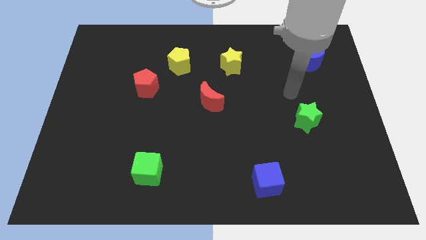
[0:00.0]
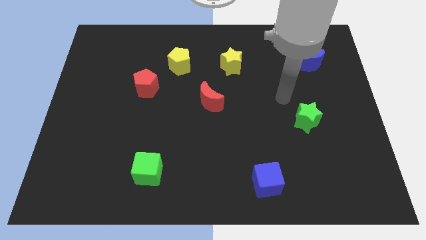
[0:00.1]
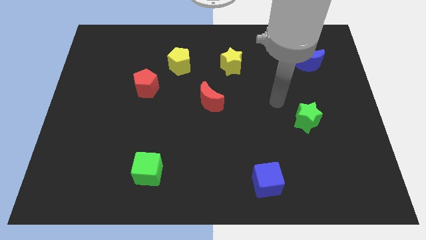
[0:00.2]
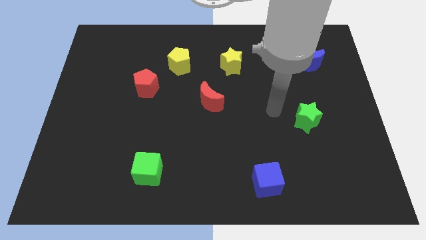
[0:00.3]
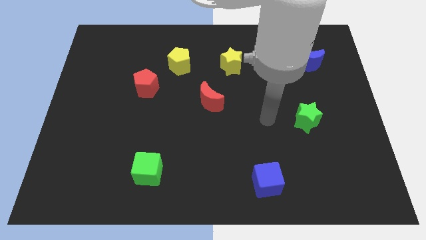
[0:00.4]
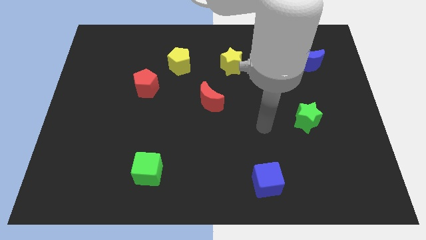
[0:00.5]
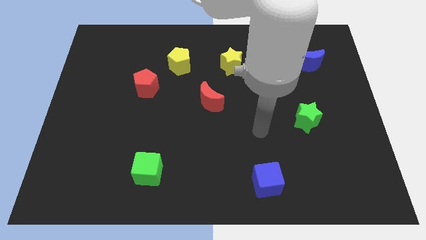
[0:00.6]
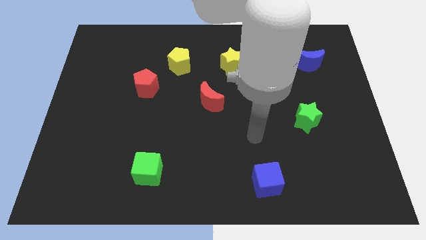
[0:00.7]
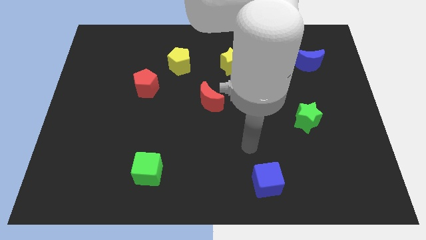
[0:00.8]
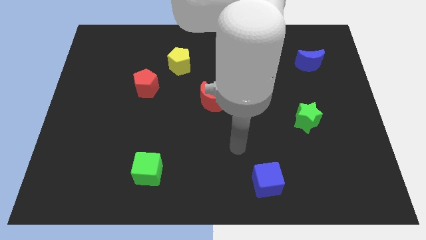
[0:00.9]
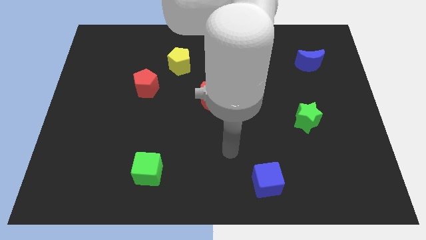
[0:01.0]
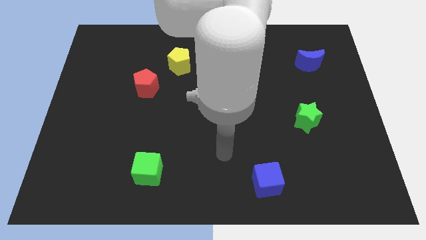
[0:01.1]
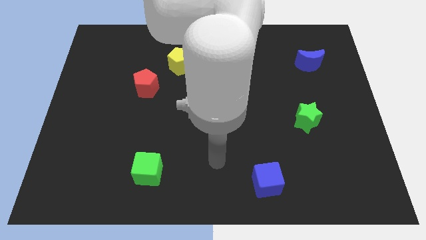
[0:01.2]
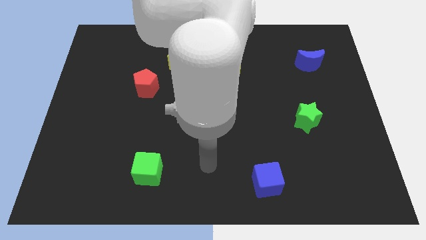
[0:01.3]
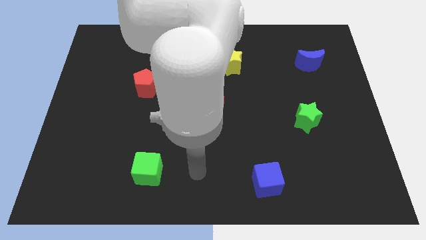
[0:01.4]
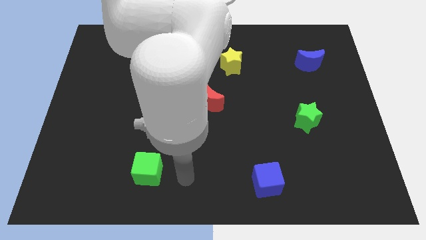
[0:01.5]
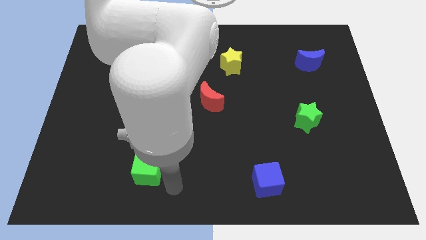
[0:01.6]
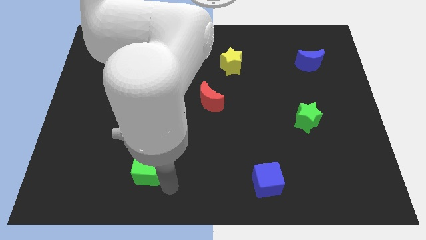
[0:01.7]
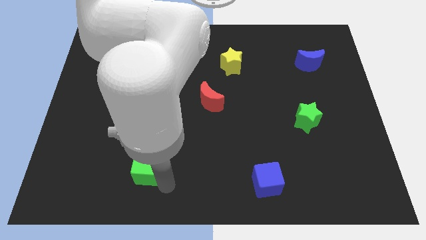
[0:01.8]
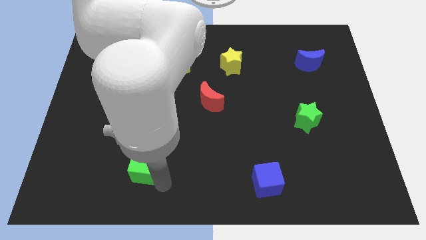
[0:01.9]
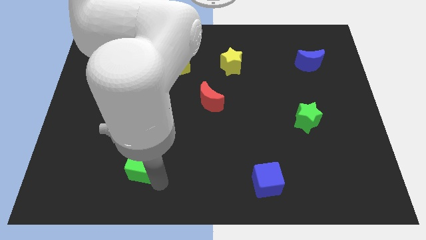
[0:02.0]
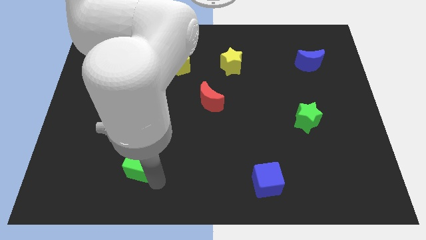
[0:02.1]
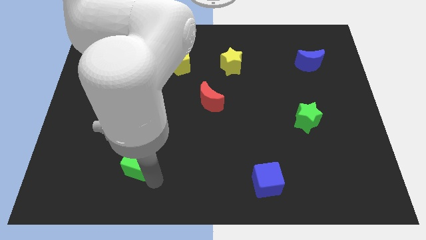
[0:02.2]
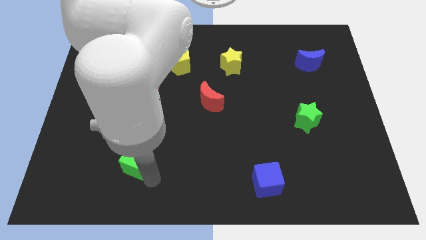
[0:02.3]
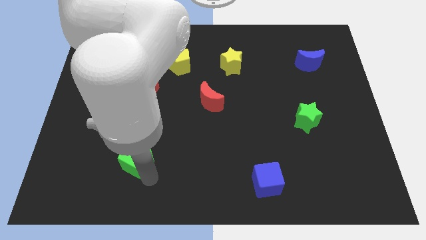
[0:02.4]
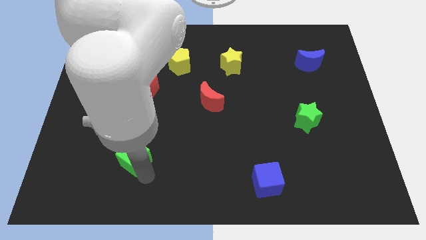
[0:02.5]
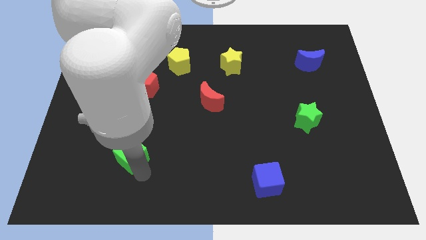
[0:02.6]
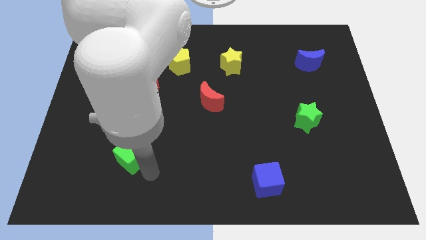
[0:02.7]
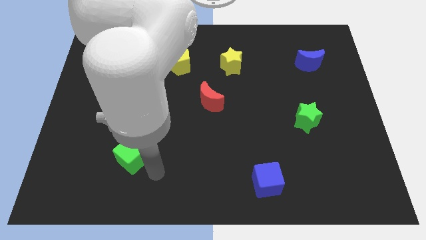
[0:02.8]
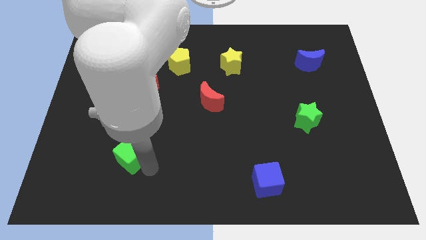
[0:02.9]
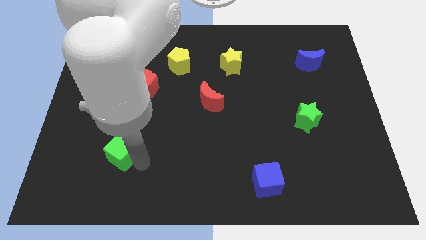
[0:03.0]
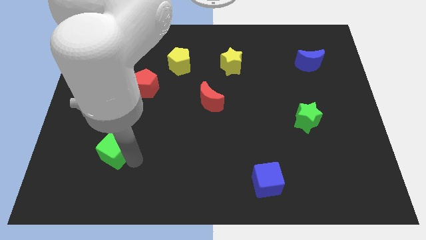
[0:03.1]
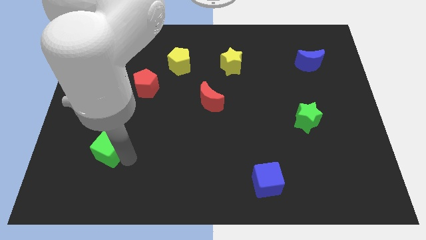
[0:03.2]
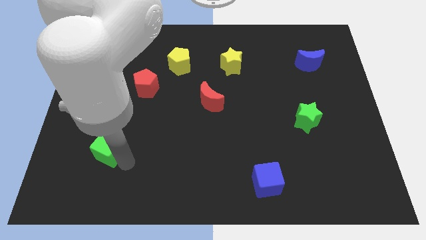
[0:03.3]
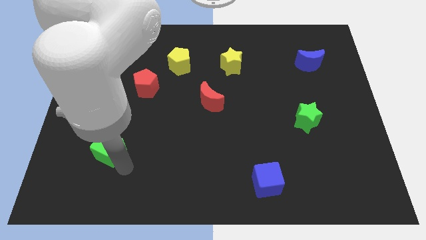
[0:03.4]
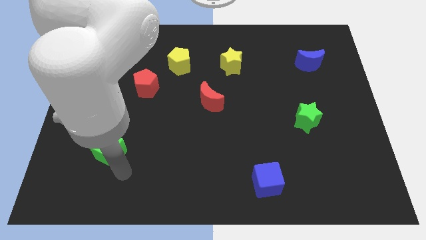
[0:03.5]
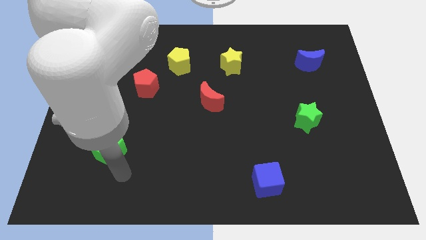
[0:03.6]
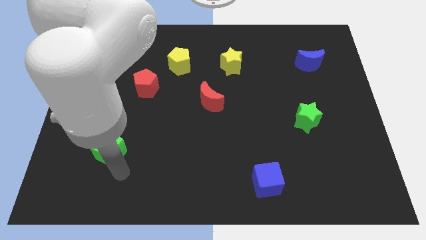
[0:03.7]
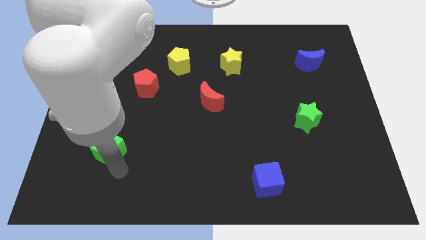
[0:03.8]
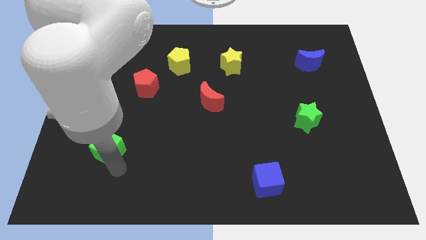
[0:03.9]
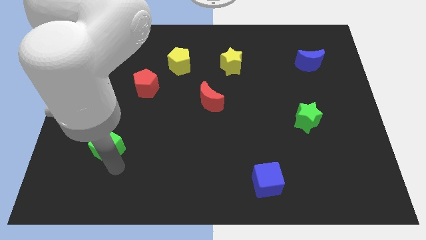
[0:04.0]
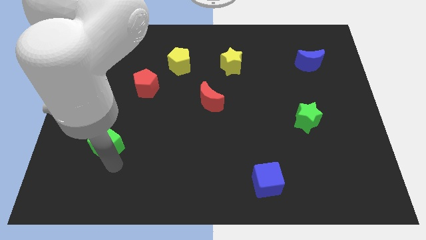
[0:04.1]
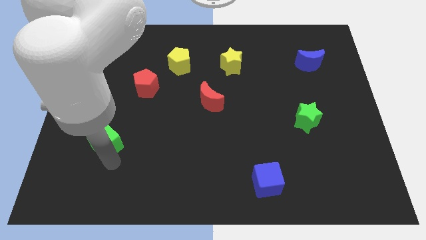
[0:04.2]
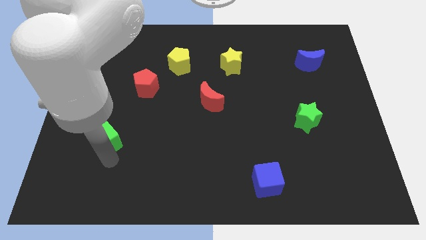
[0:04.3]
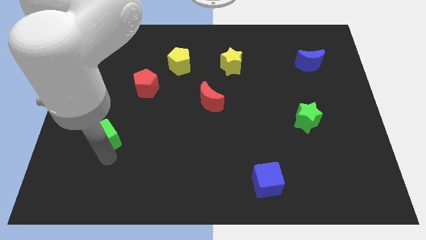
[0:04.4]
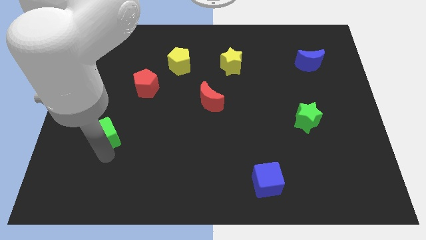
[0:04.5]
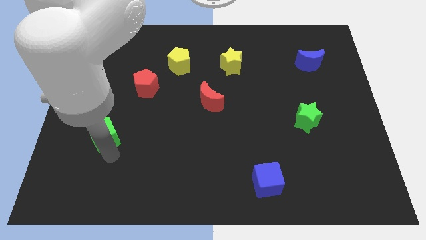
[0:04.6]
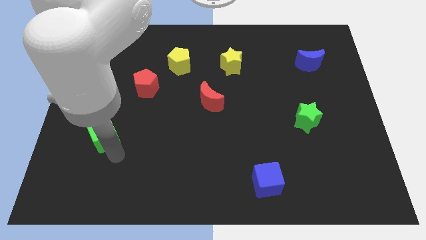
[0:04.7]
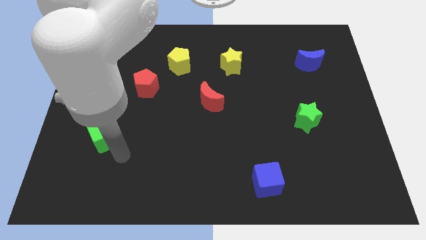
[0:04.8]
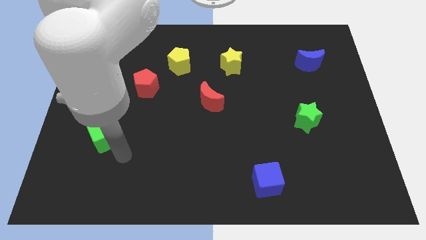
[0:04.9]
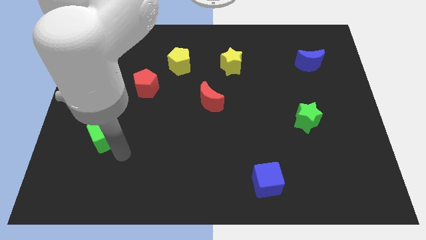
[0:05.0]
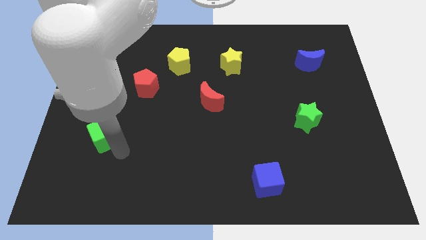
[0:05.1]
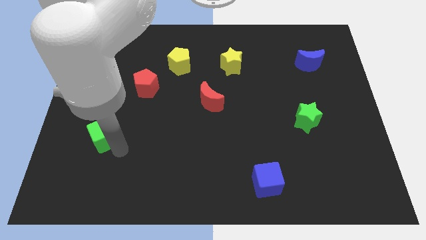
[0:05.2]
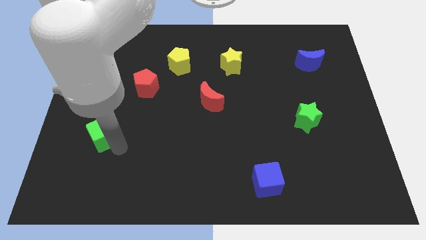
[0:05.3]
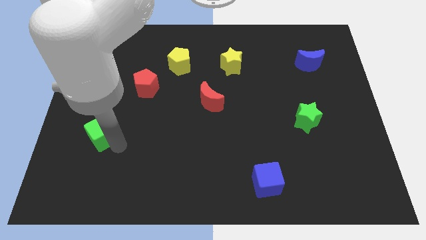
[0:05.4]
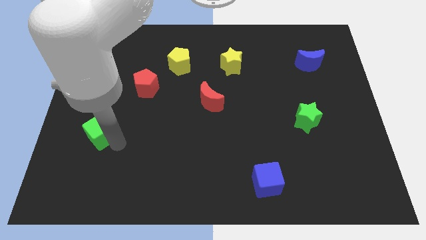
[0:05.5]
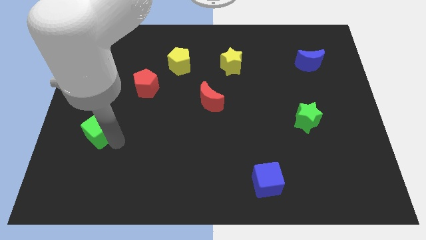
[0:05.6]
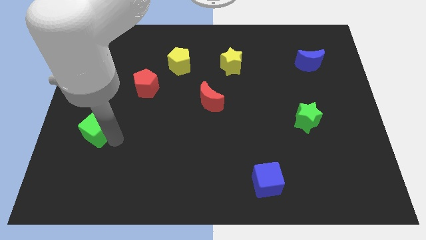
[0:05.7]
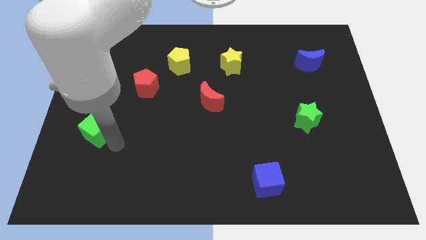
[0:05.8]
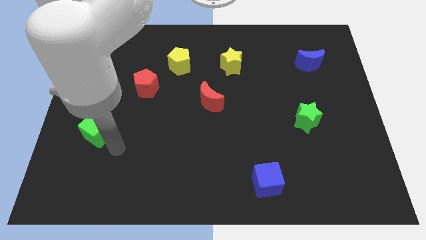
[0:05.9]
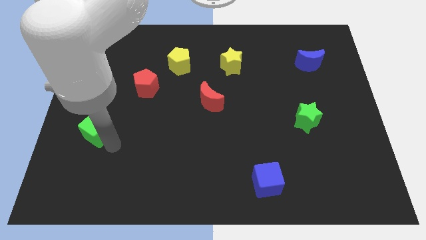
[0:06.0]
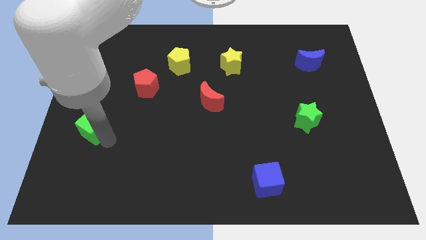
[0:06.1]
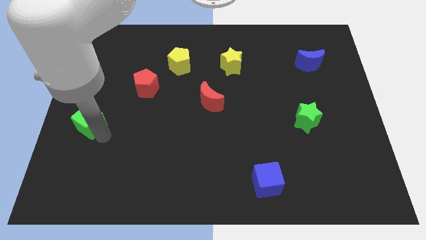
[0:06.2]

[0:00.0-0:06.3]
put the green cube to the left side of the board
